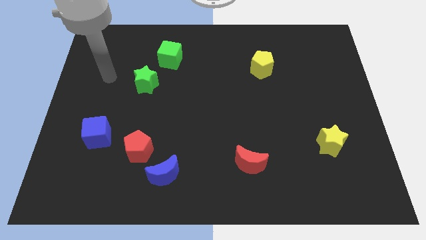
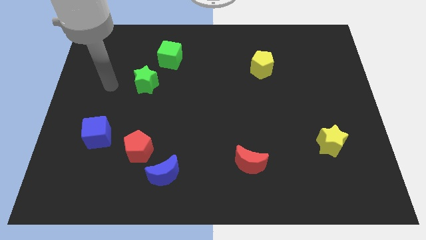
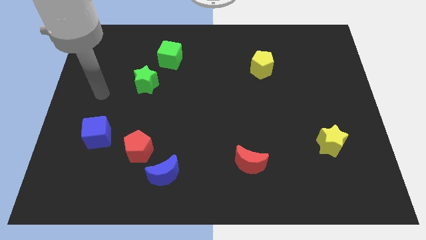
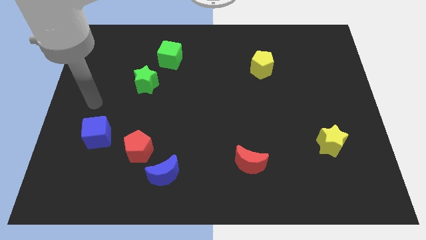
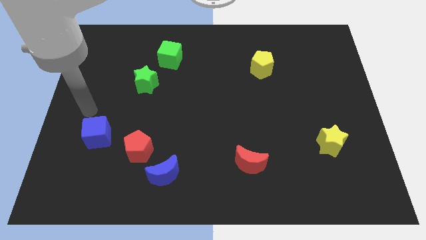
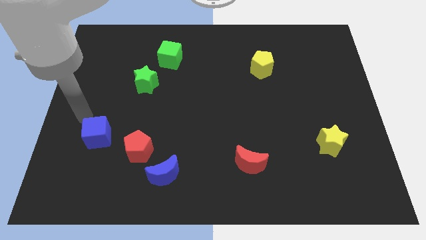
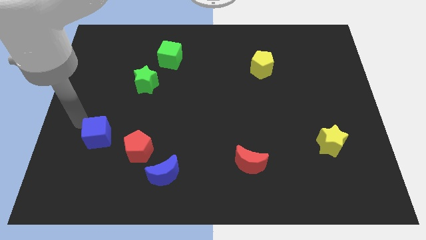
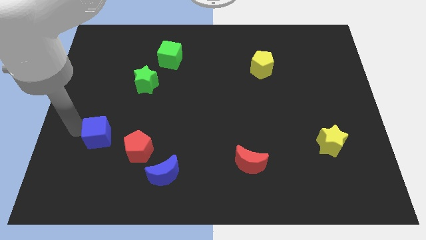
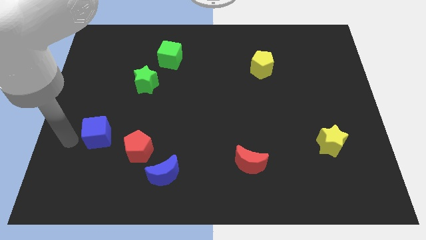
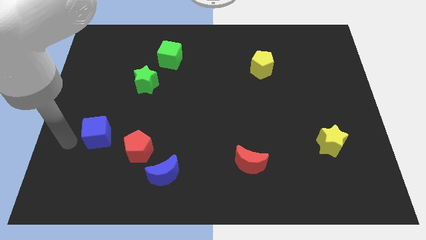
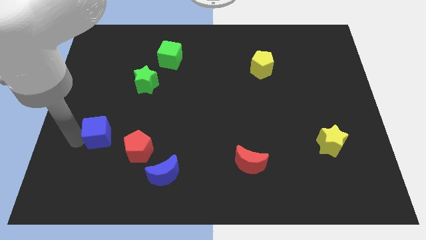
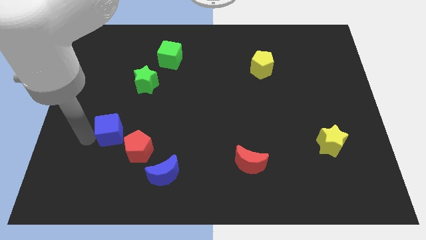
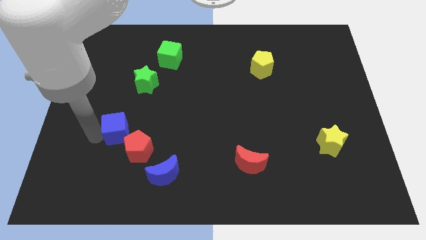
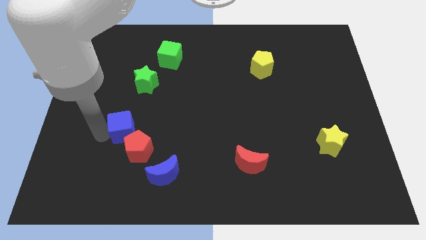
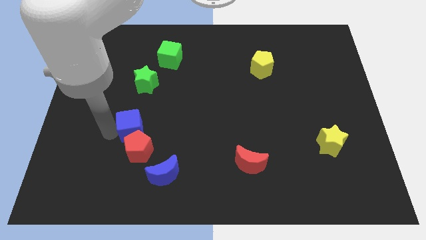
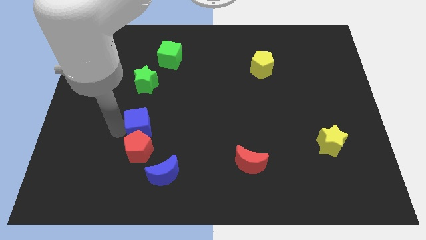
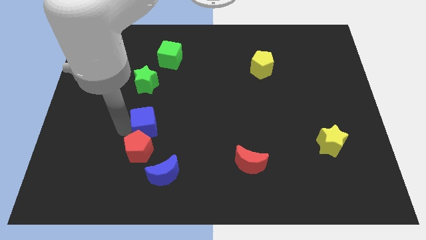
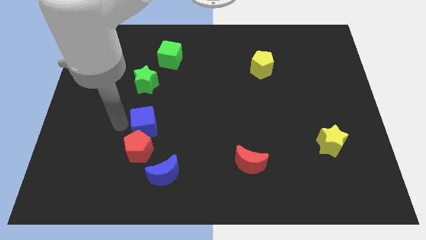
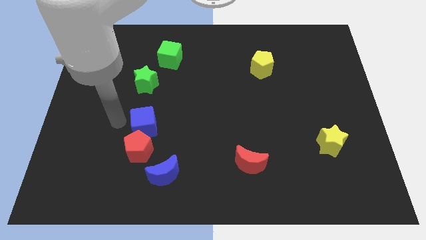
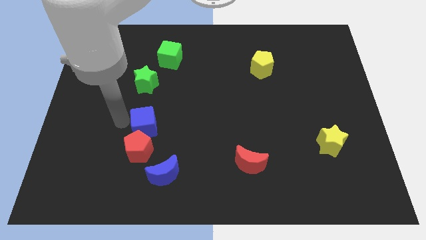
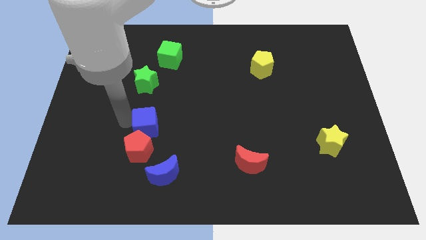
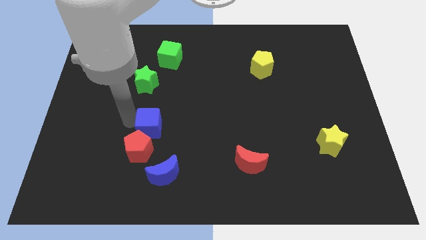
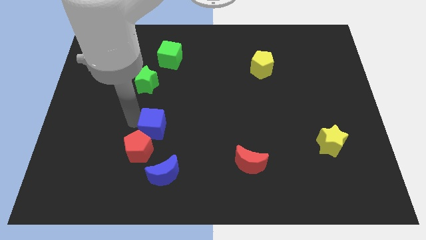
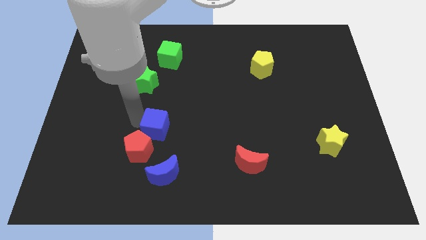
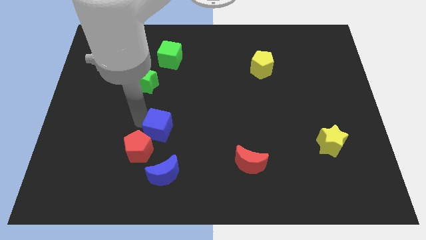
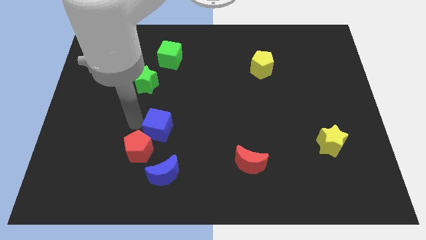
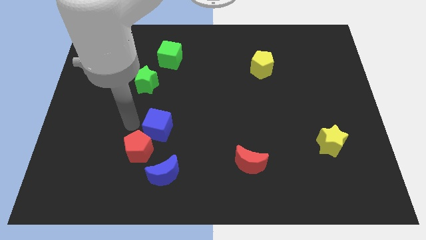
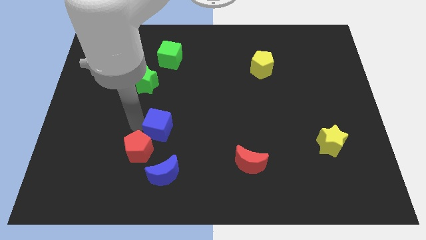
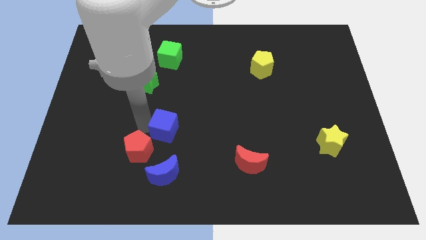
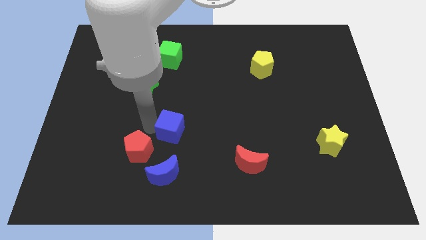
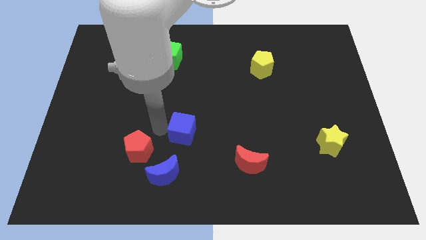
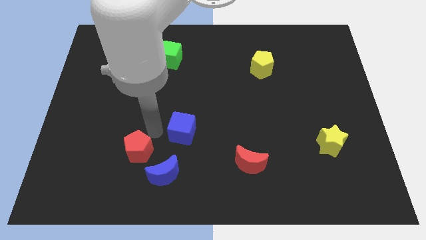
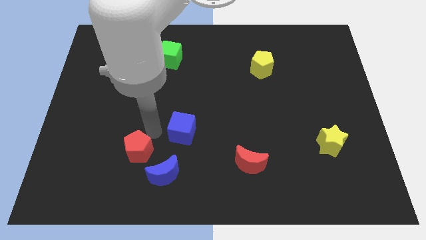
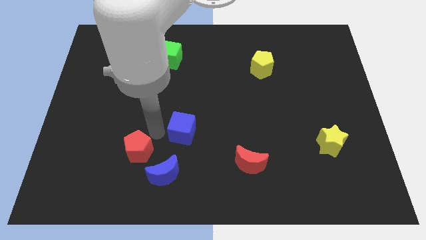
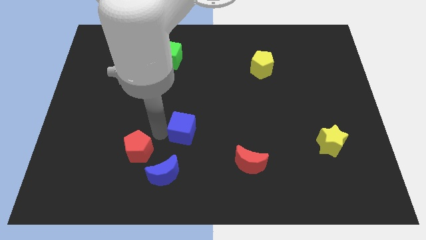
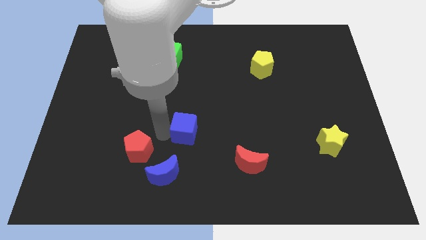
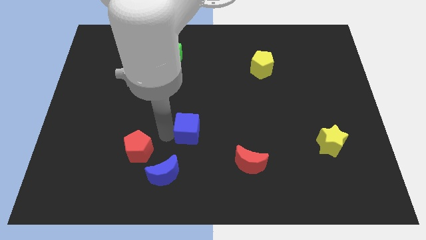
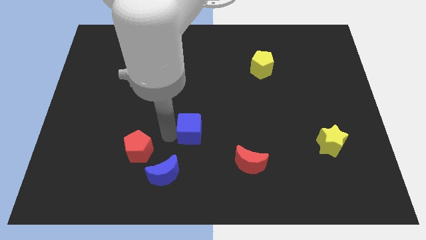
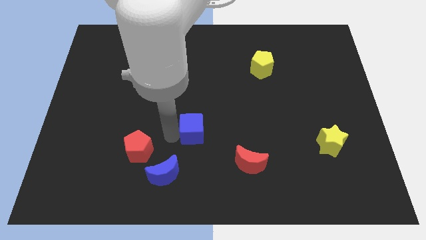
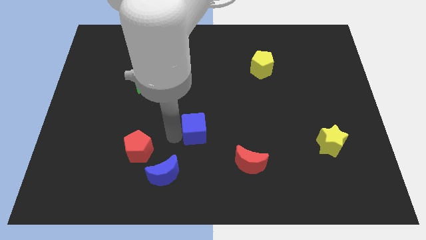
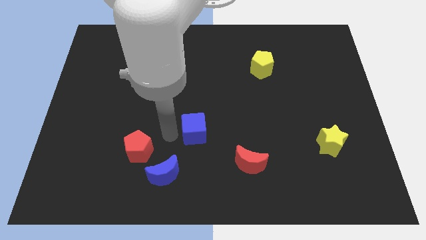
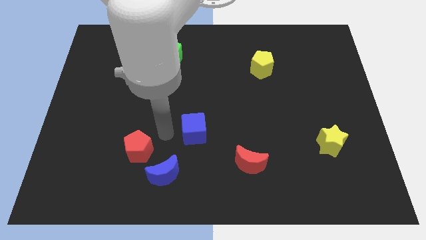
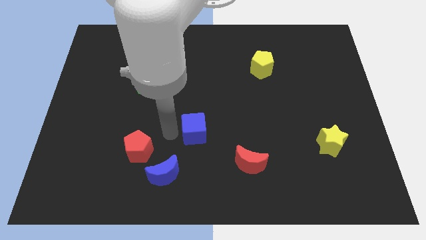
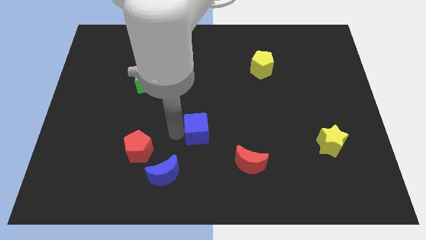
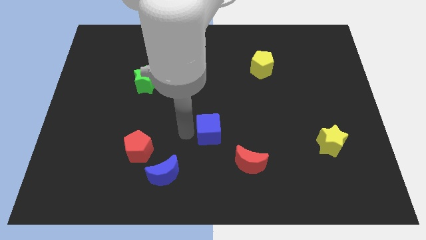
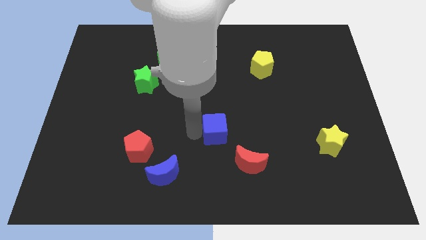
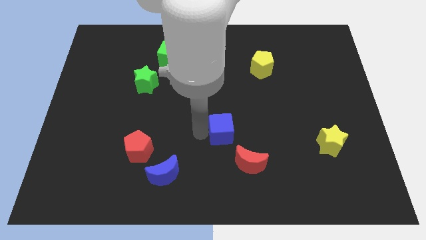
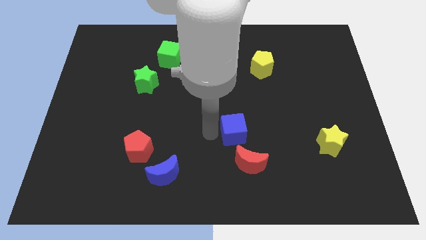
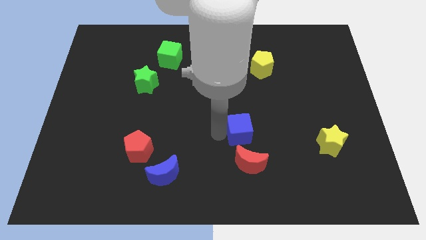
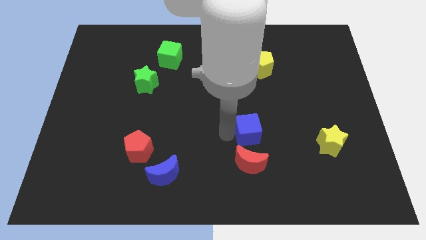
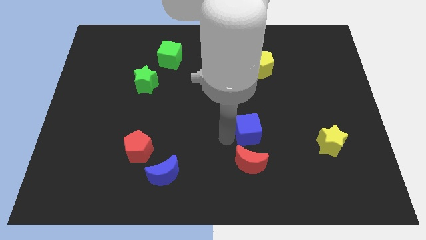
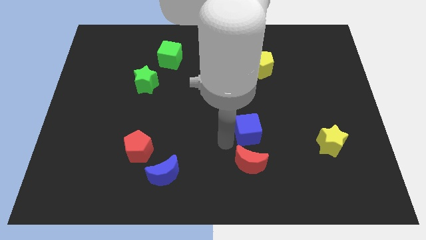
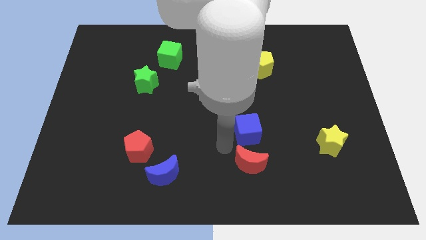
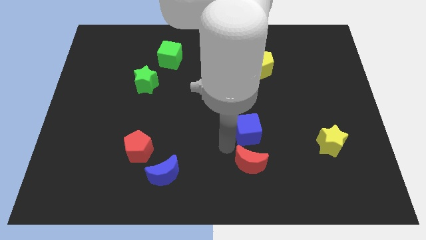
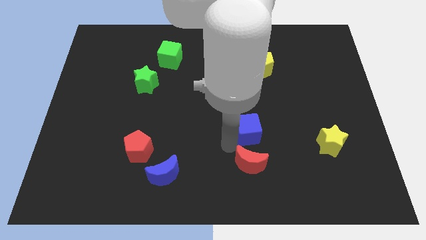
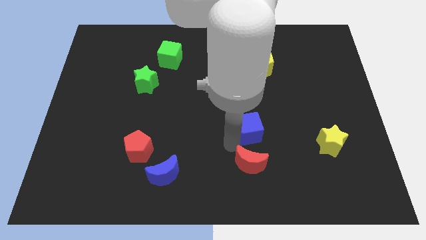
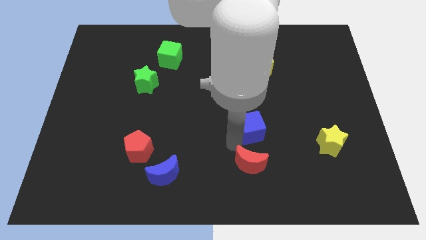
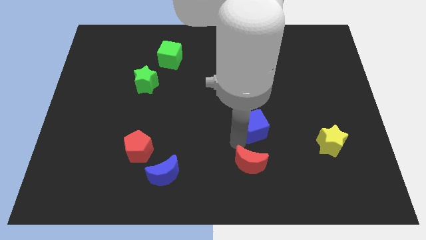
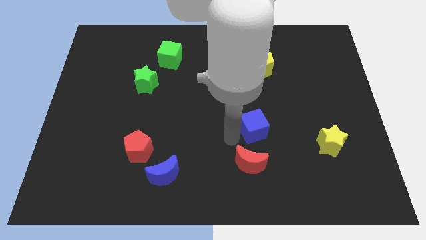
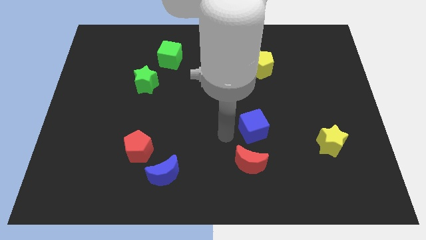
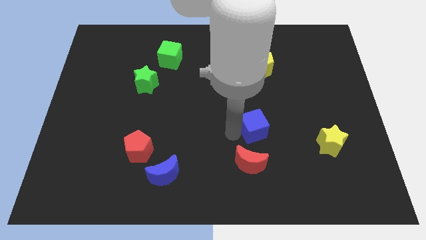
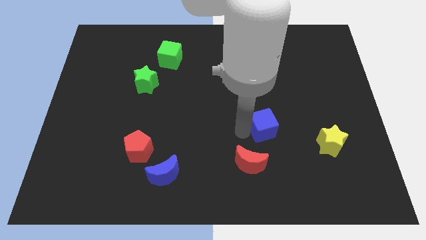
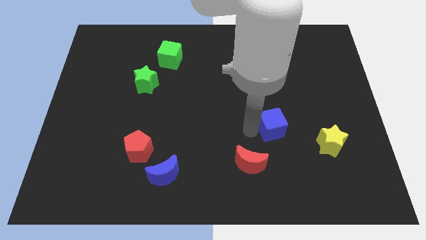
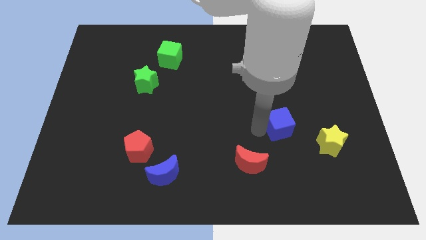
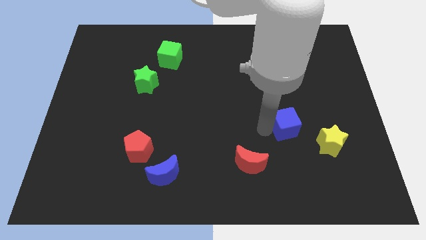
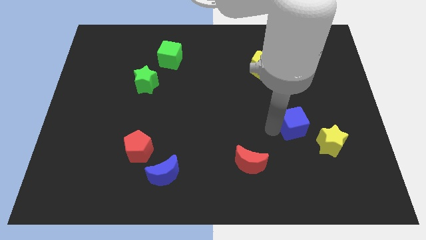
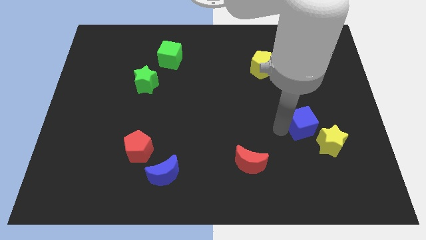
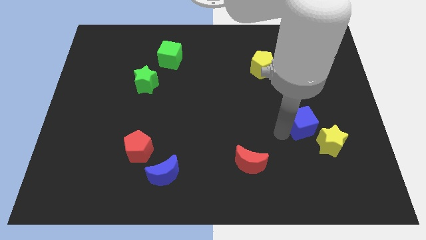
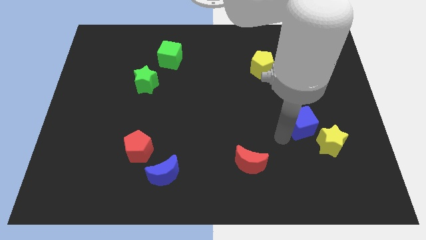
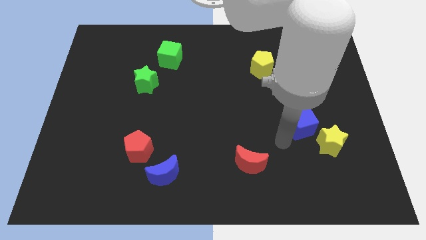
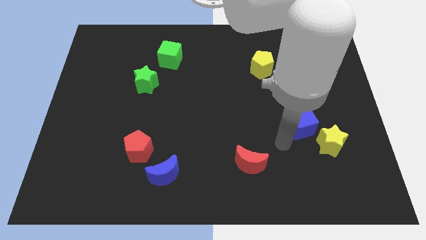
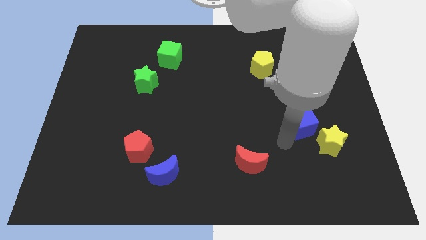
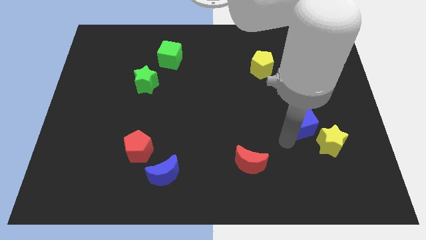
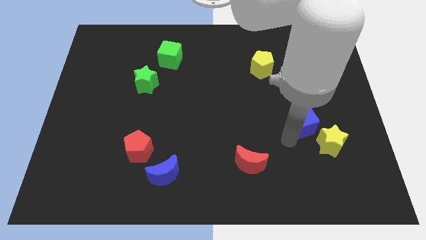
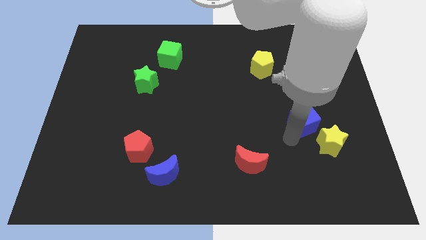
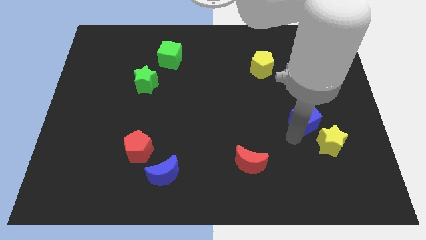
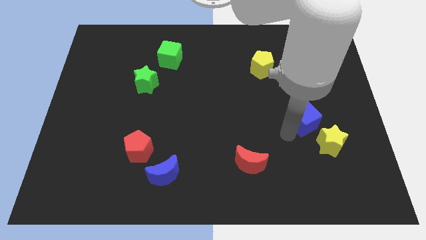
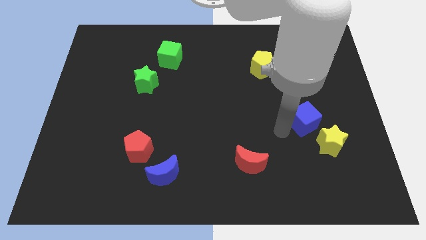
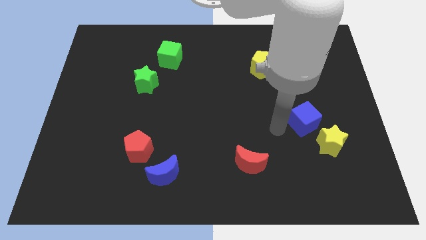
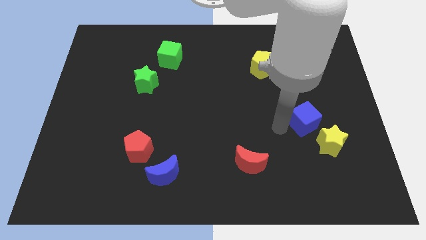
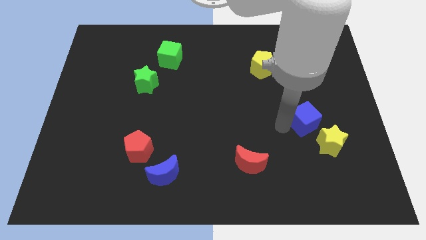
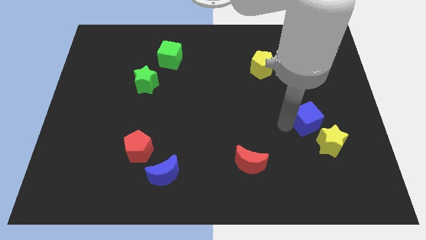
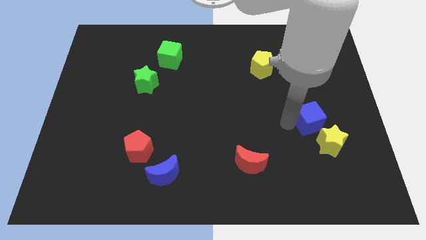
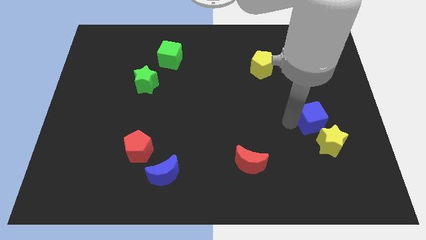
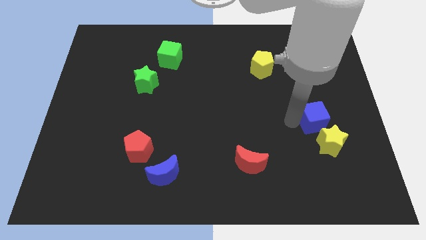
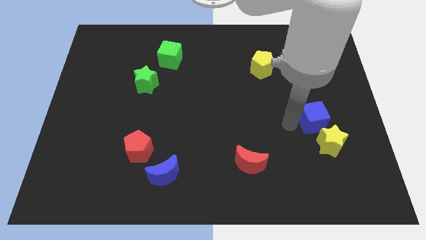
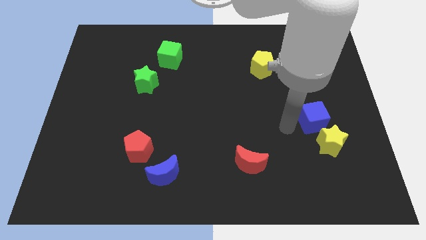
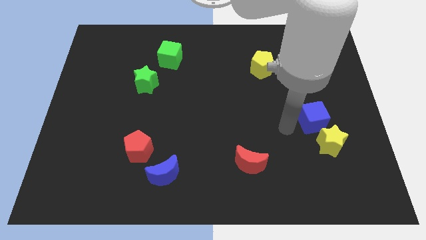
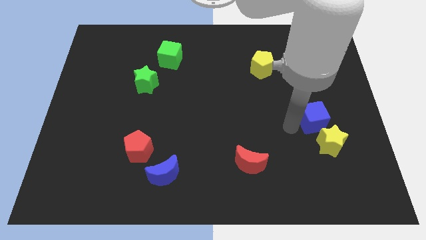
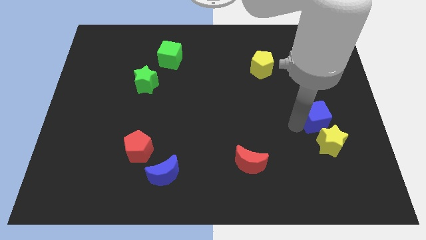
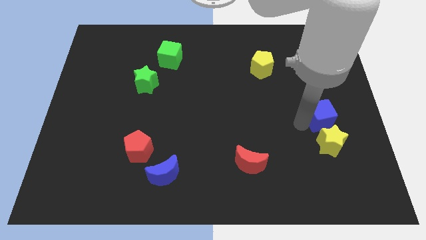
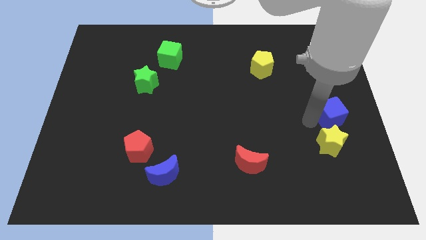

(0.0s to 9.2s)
slide the blue cube to the right side of the board
